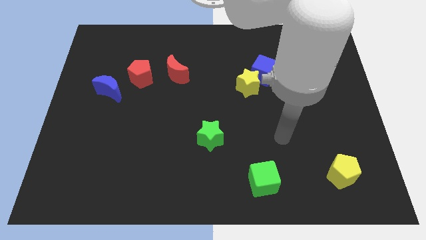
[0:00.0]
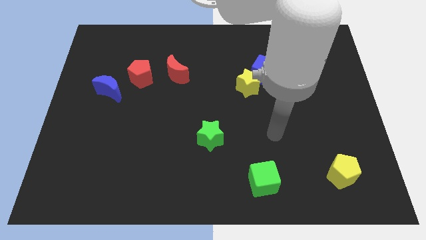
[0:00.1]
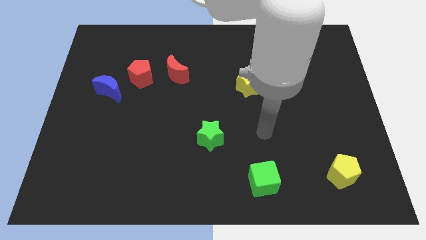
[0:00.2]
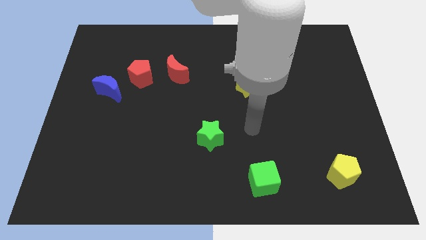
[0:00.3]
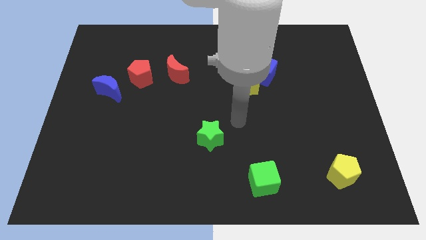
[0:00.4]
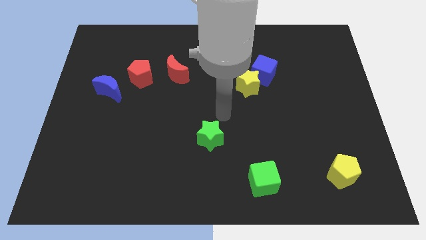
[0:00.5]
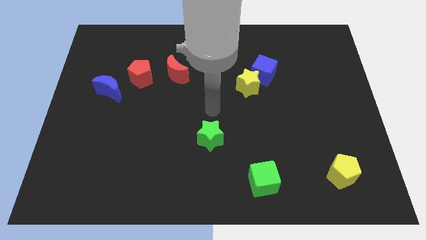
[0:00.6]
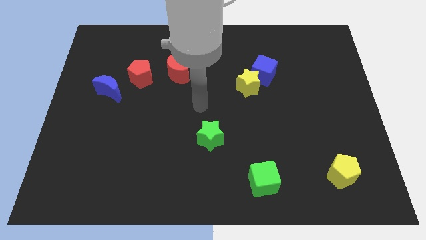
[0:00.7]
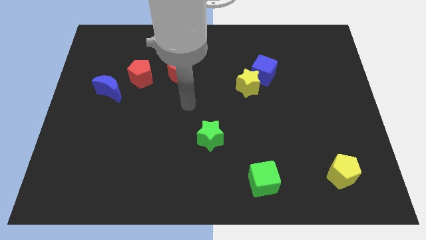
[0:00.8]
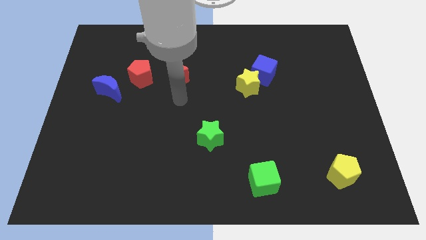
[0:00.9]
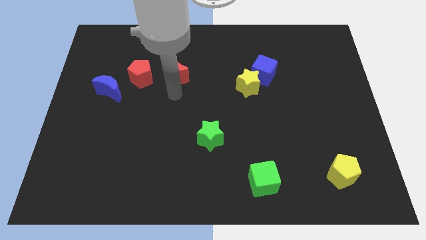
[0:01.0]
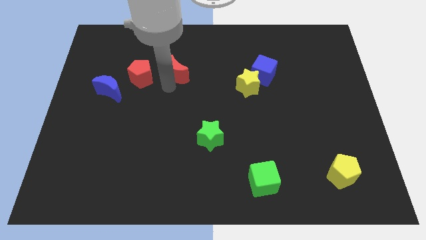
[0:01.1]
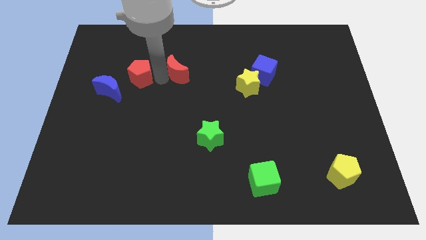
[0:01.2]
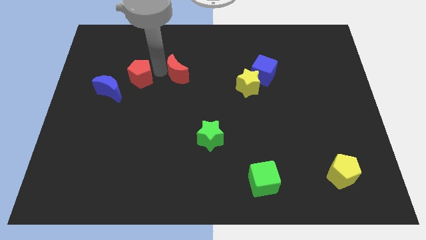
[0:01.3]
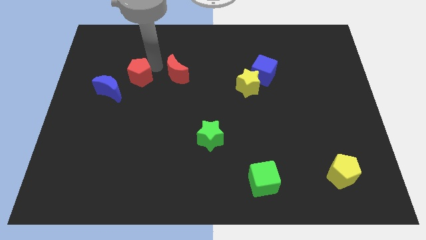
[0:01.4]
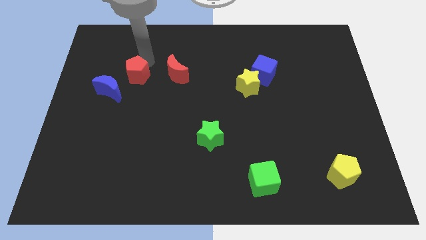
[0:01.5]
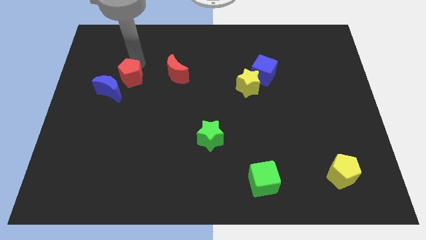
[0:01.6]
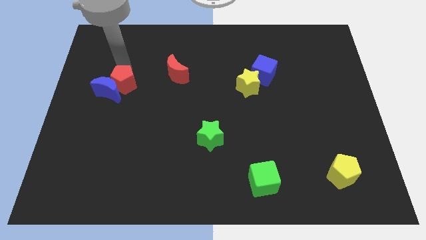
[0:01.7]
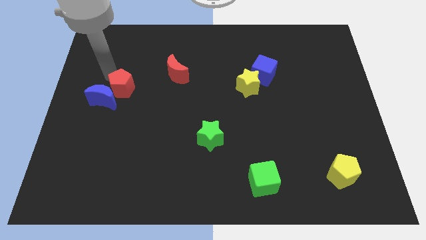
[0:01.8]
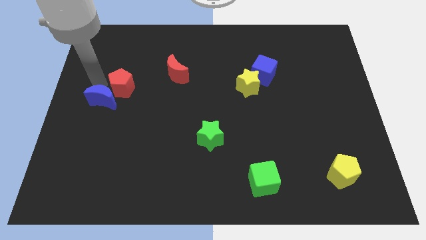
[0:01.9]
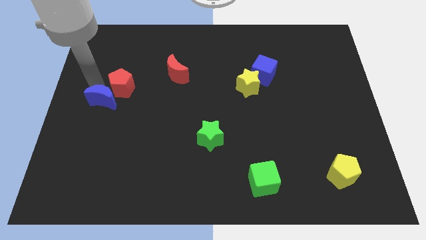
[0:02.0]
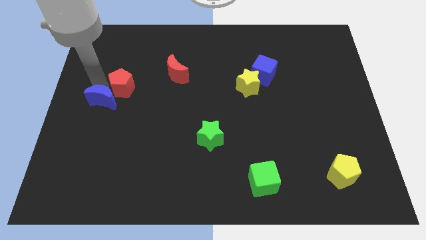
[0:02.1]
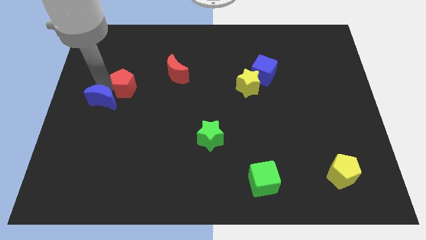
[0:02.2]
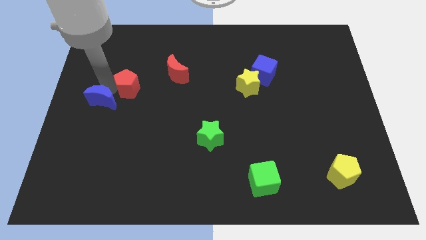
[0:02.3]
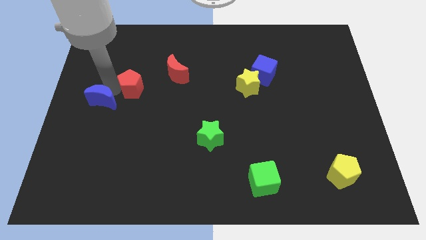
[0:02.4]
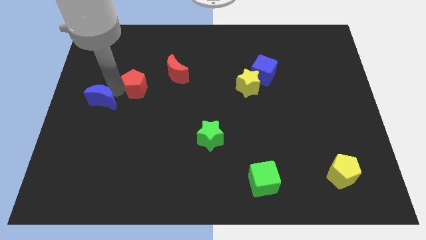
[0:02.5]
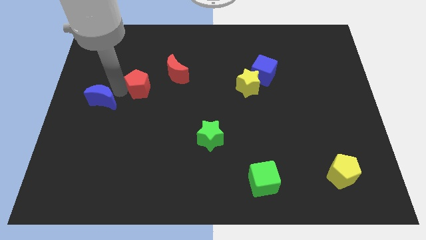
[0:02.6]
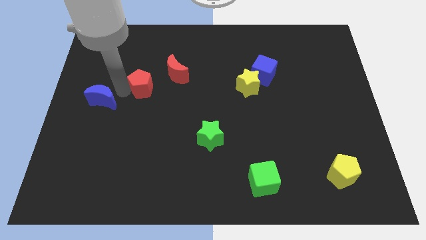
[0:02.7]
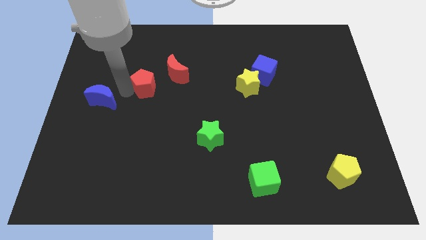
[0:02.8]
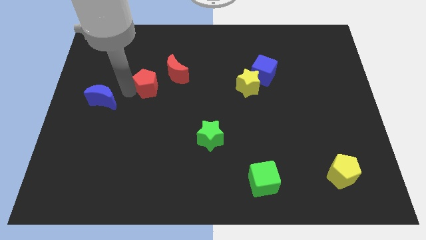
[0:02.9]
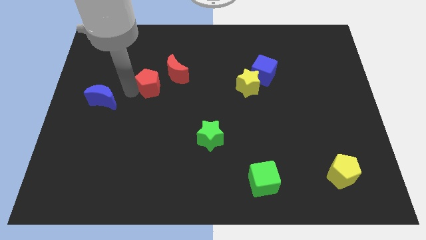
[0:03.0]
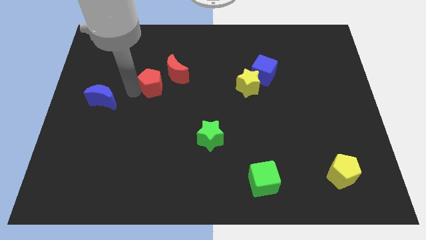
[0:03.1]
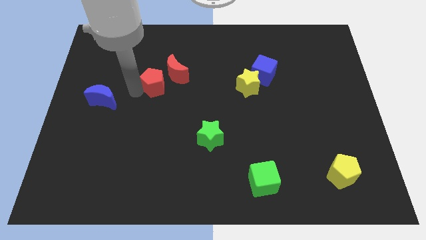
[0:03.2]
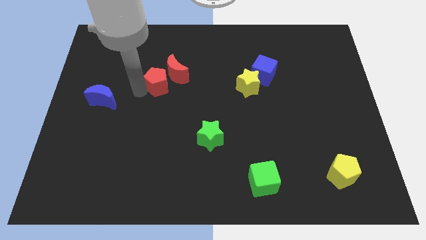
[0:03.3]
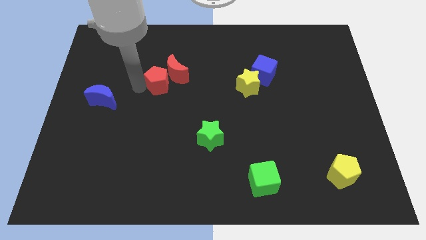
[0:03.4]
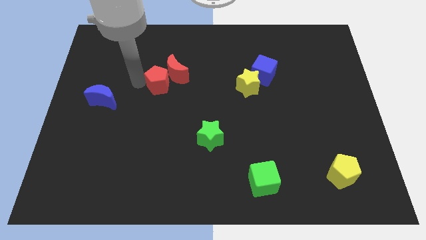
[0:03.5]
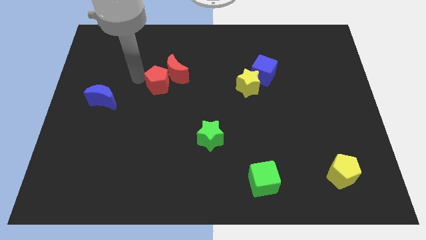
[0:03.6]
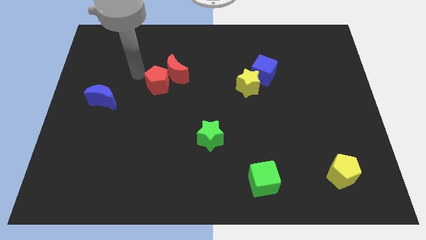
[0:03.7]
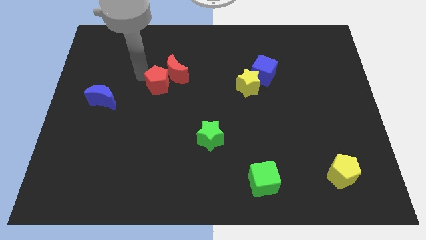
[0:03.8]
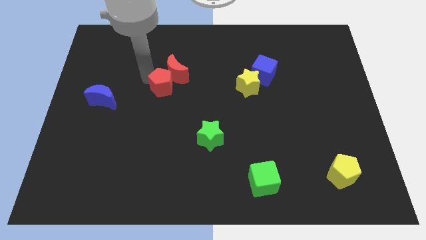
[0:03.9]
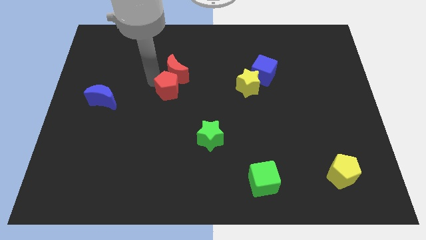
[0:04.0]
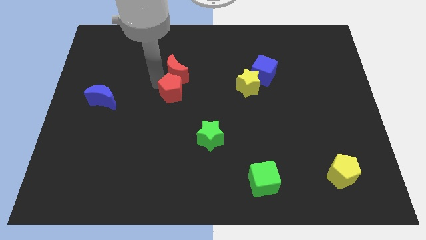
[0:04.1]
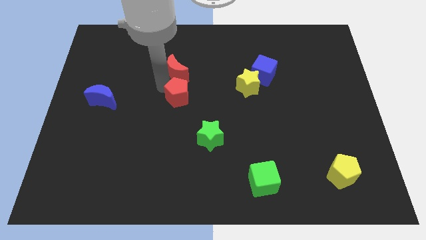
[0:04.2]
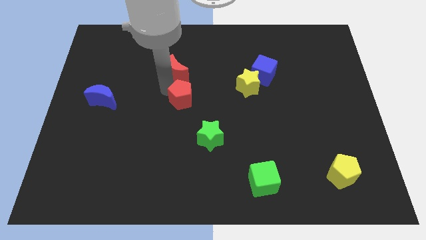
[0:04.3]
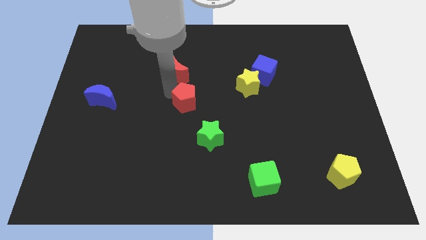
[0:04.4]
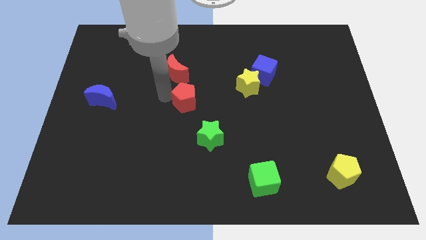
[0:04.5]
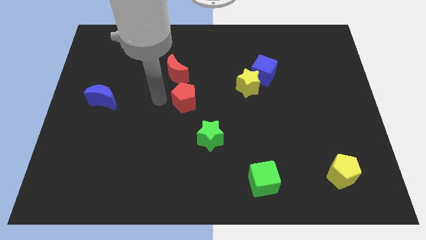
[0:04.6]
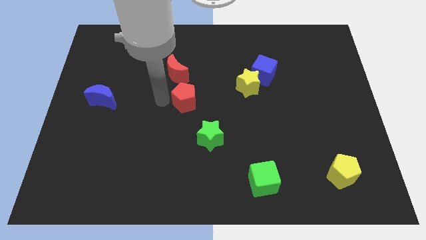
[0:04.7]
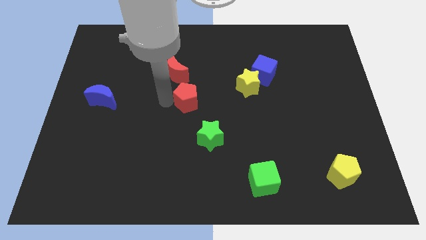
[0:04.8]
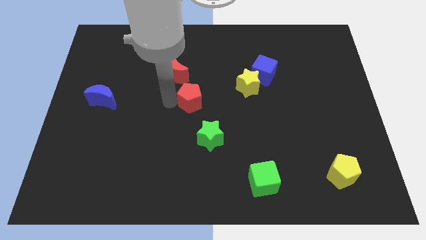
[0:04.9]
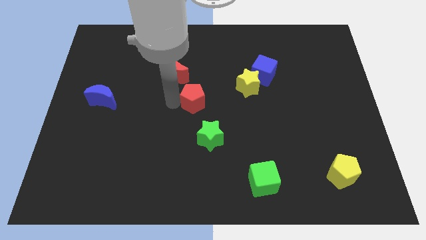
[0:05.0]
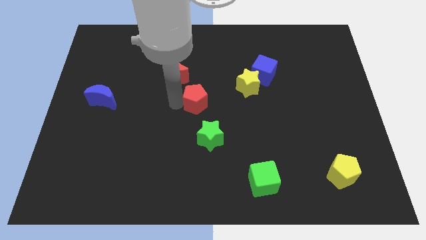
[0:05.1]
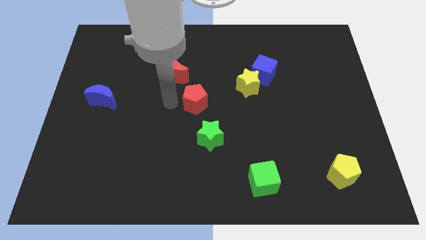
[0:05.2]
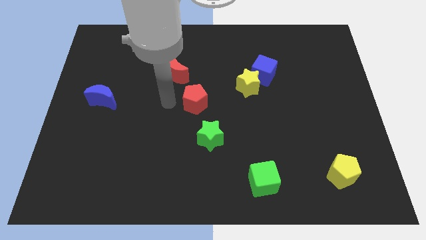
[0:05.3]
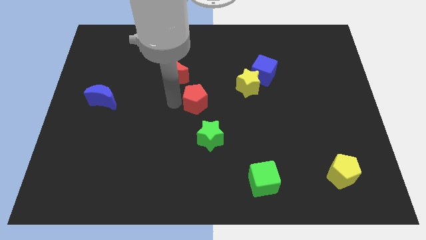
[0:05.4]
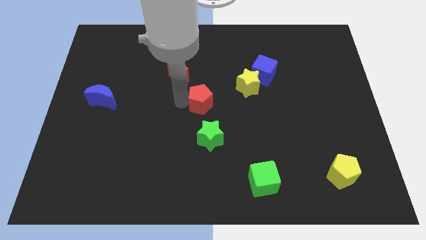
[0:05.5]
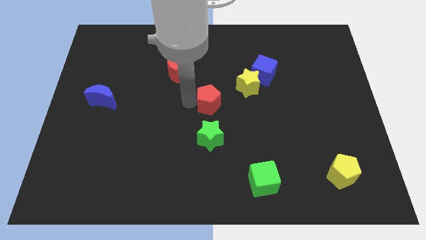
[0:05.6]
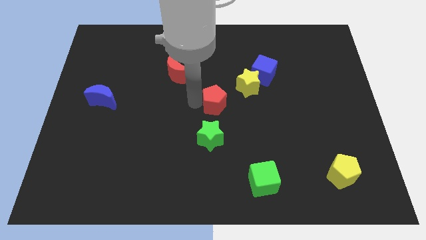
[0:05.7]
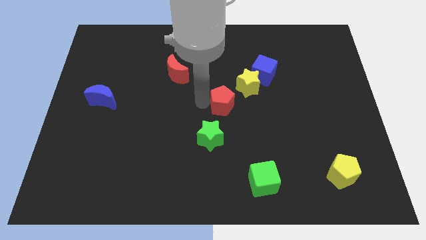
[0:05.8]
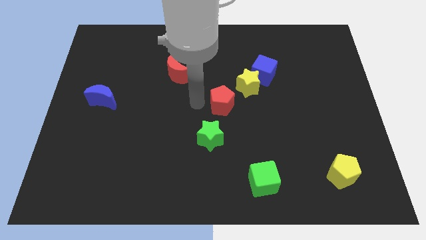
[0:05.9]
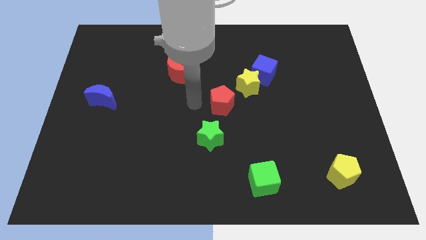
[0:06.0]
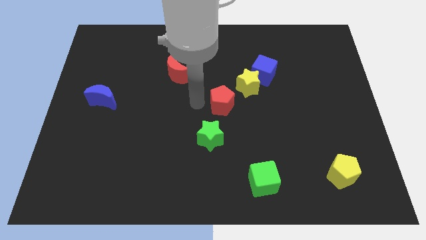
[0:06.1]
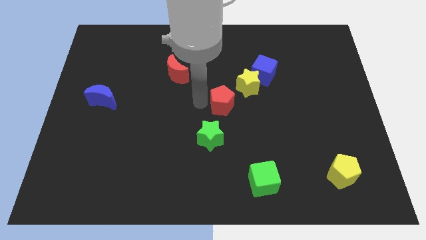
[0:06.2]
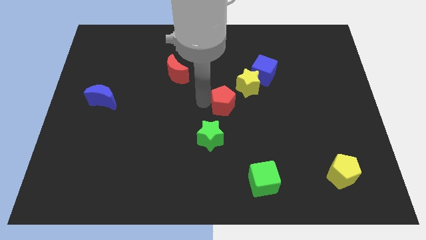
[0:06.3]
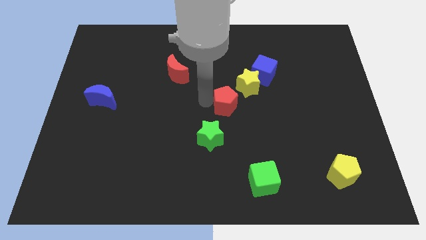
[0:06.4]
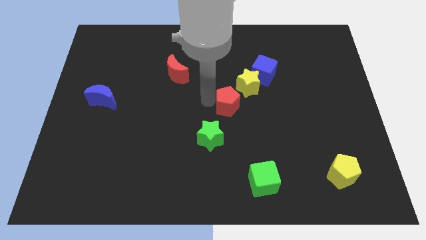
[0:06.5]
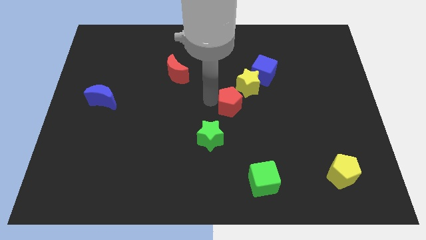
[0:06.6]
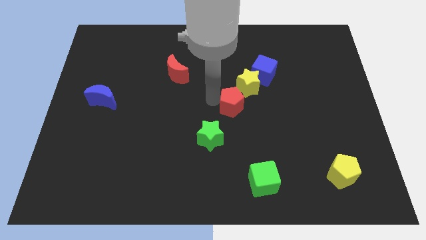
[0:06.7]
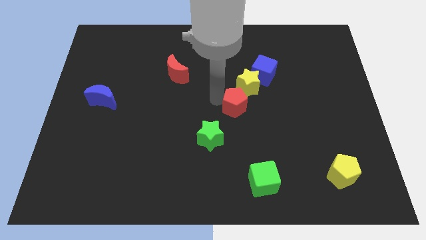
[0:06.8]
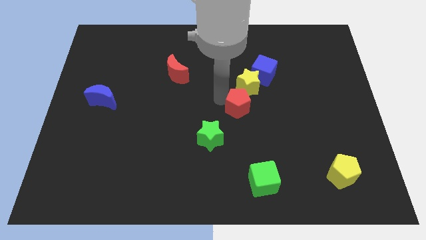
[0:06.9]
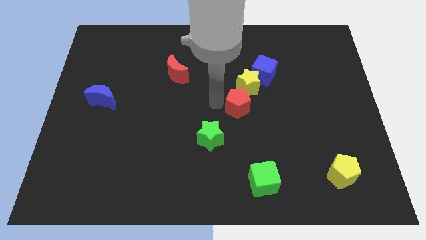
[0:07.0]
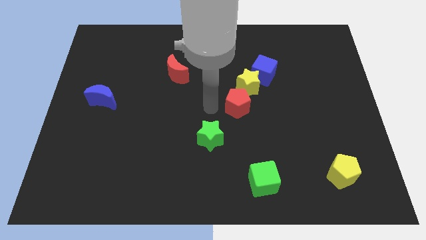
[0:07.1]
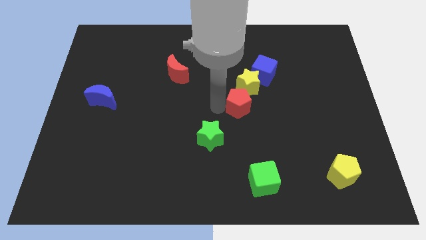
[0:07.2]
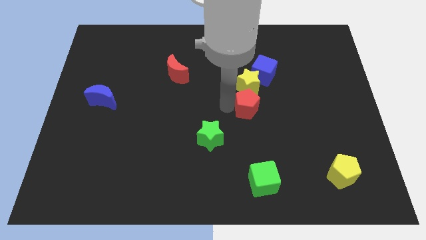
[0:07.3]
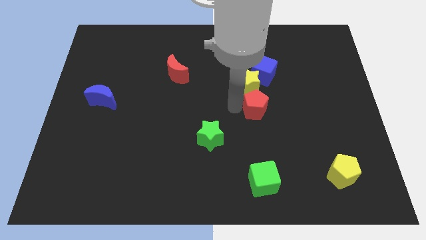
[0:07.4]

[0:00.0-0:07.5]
move the red pentagon to the bottom right side of the yellow star

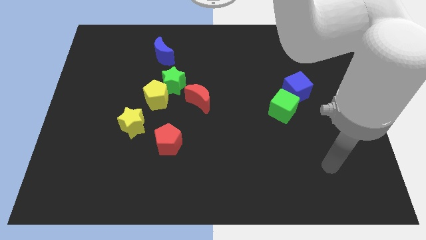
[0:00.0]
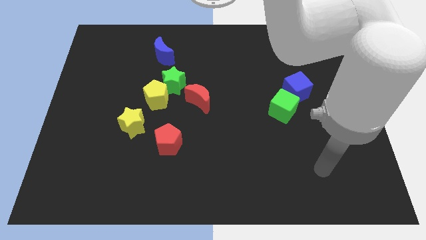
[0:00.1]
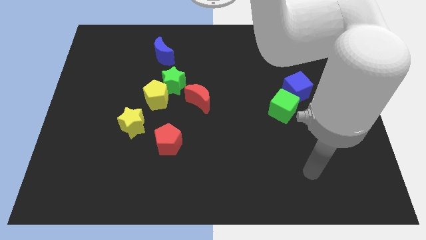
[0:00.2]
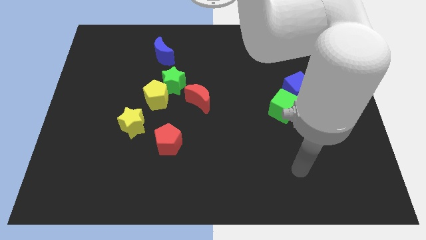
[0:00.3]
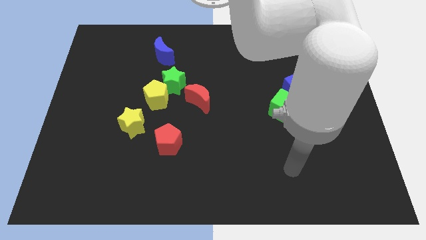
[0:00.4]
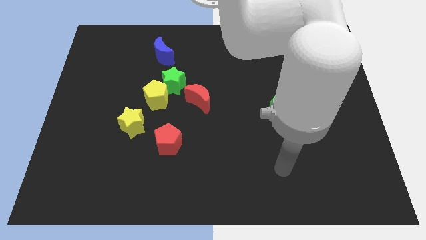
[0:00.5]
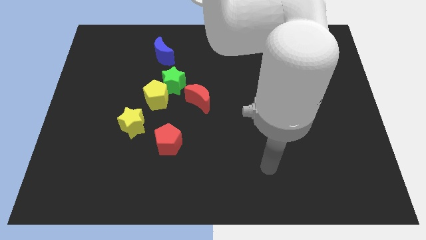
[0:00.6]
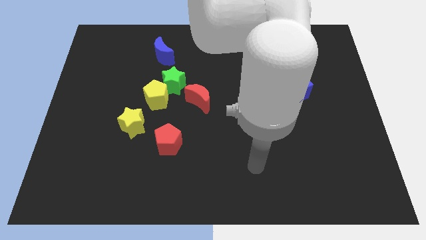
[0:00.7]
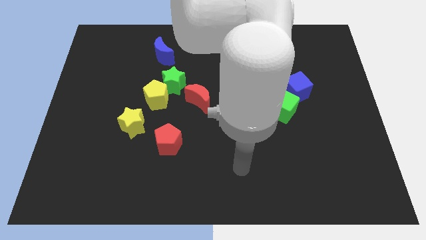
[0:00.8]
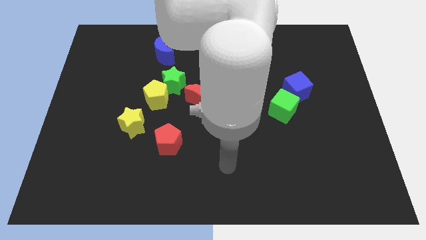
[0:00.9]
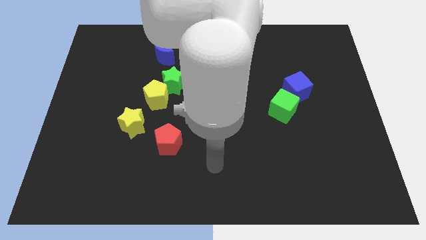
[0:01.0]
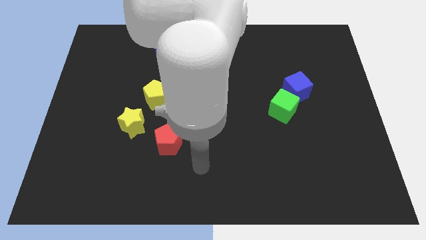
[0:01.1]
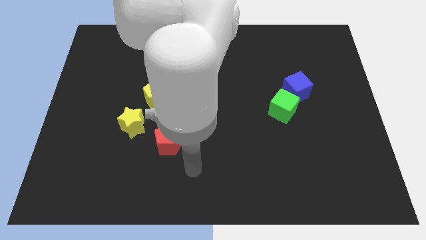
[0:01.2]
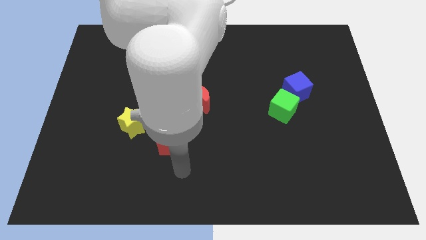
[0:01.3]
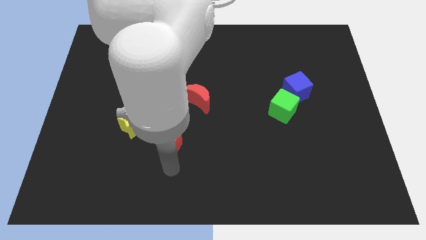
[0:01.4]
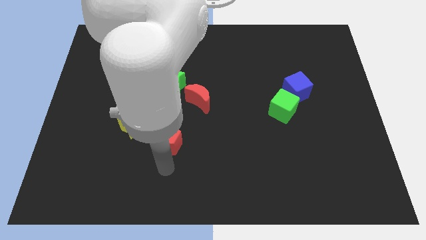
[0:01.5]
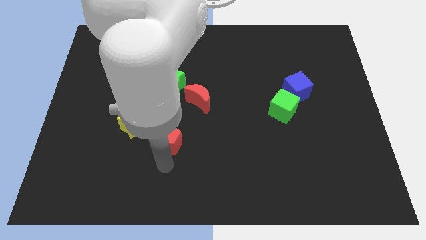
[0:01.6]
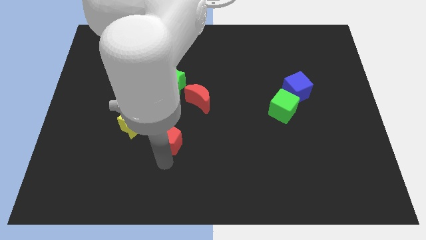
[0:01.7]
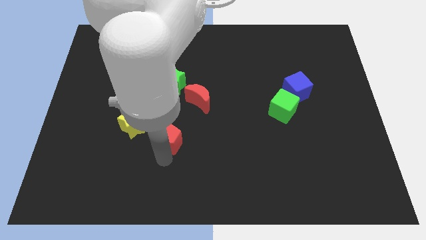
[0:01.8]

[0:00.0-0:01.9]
push the red pentagon to the bottom of the green star
